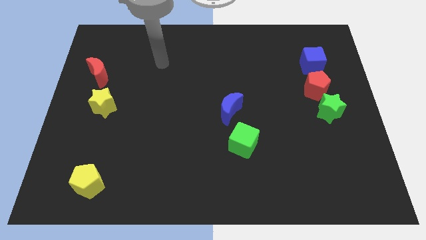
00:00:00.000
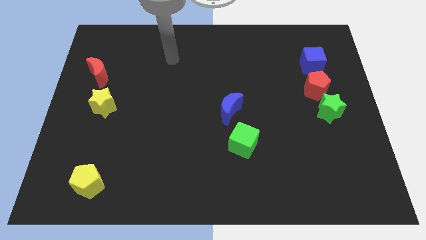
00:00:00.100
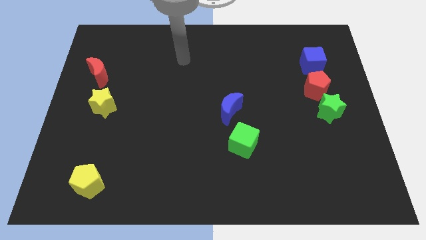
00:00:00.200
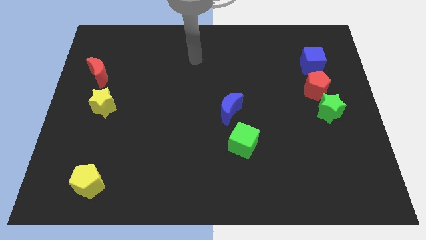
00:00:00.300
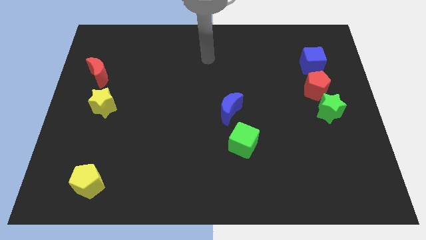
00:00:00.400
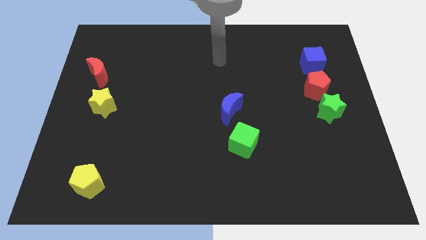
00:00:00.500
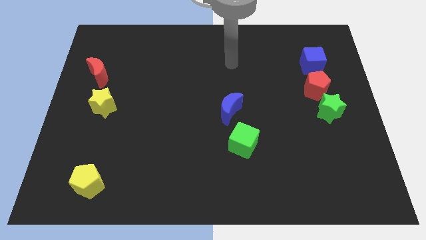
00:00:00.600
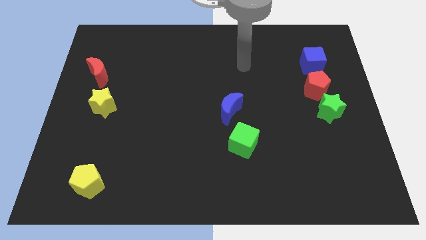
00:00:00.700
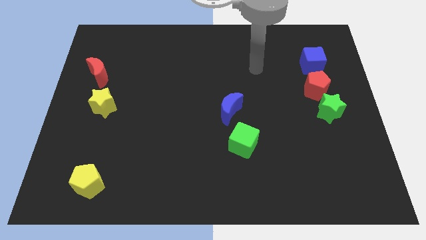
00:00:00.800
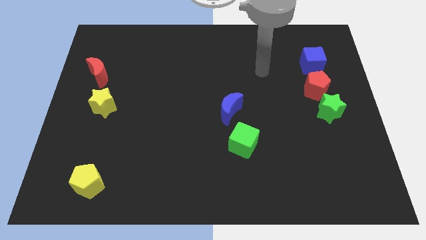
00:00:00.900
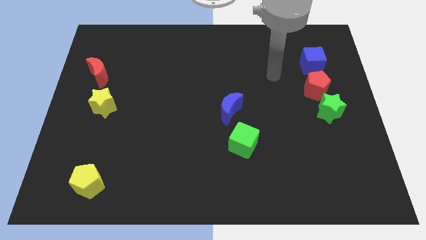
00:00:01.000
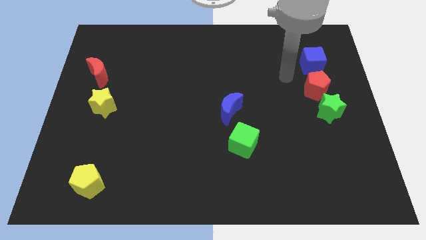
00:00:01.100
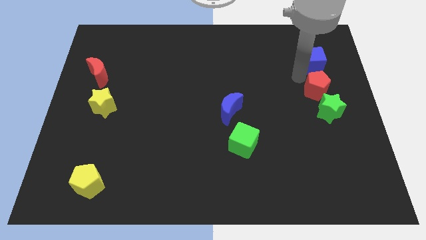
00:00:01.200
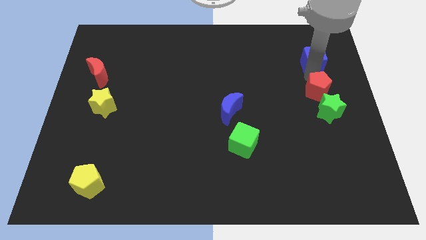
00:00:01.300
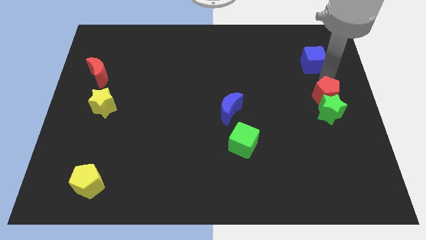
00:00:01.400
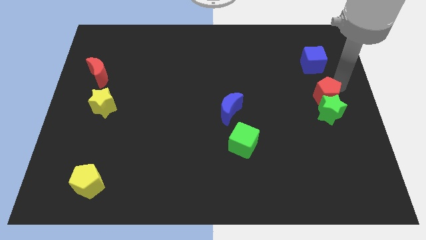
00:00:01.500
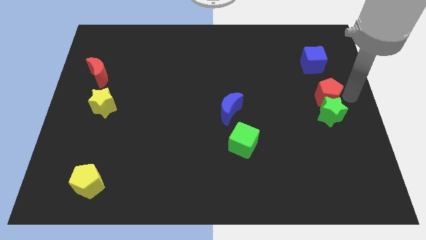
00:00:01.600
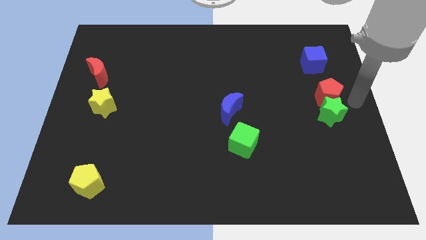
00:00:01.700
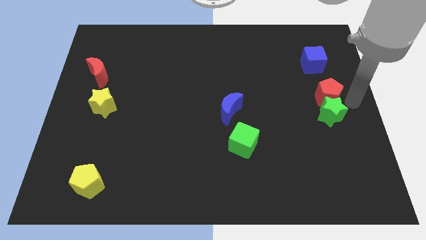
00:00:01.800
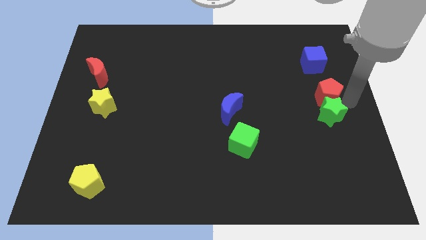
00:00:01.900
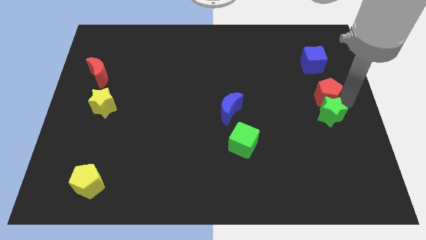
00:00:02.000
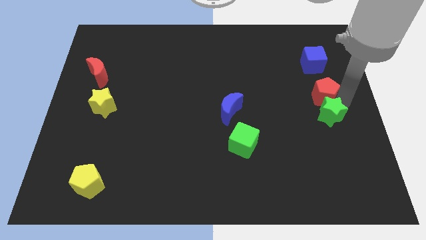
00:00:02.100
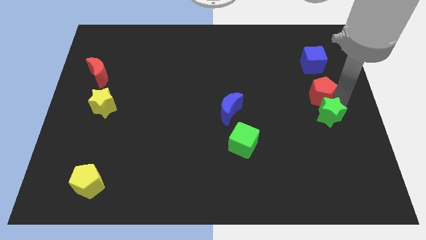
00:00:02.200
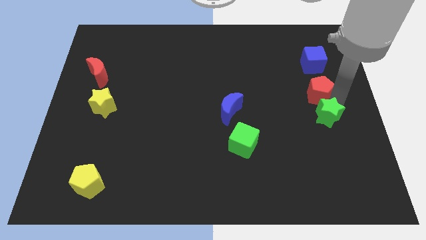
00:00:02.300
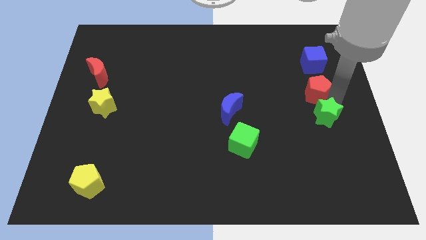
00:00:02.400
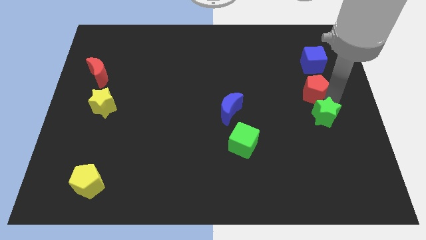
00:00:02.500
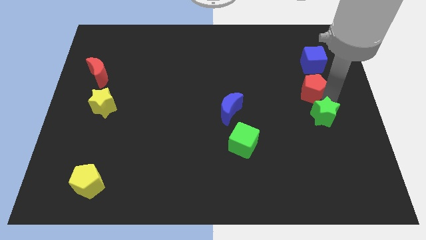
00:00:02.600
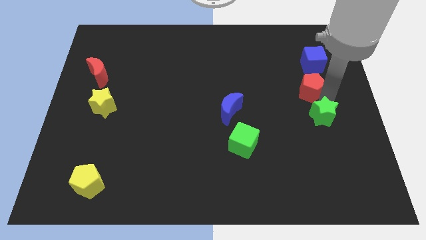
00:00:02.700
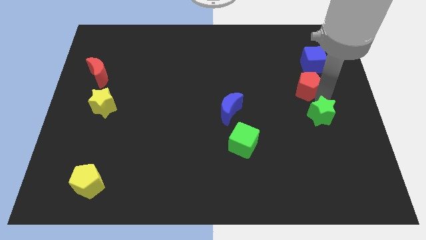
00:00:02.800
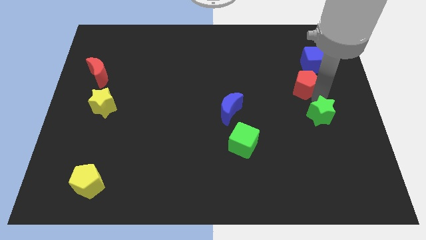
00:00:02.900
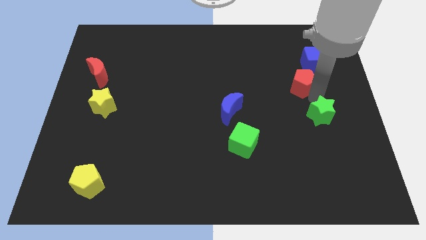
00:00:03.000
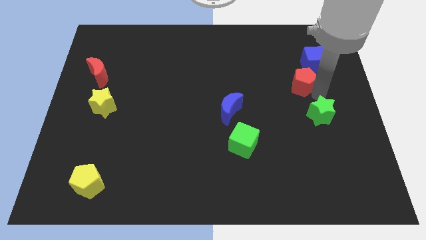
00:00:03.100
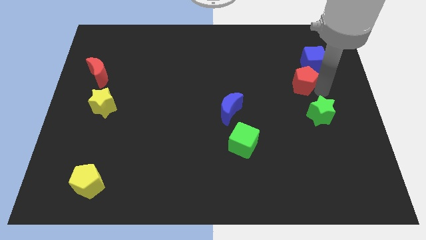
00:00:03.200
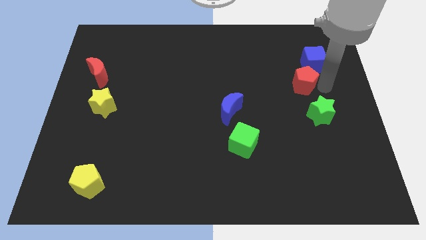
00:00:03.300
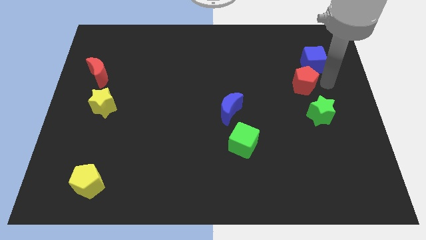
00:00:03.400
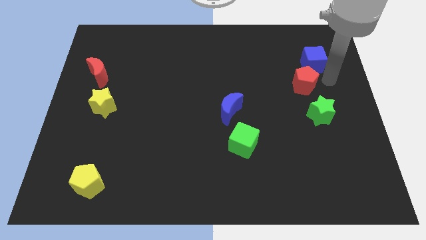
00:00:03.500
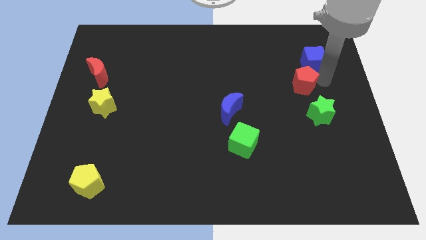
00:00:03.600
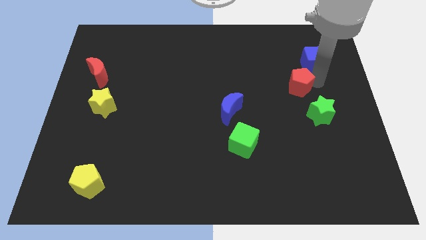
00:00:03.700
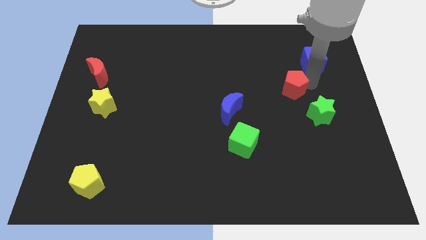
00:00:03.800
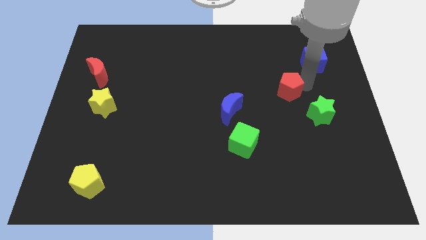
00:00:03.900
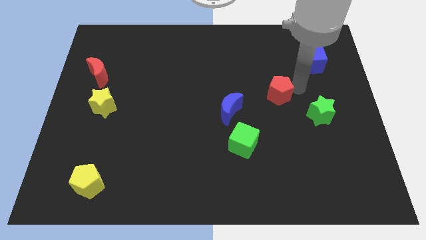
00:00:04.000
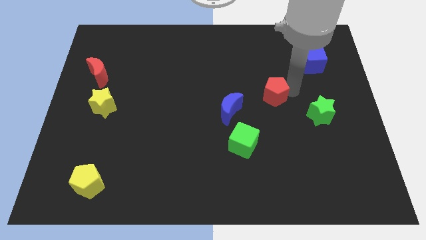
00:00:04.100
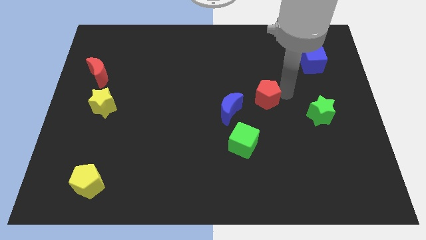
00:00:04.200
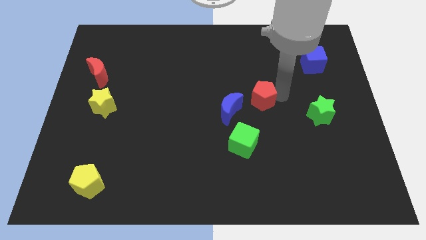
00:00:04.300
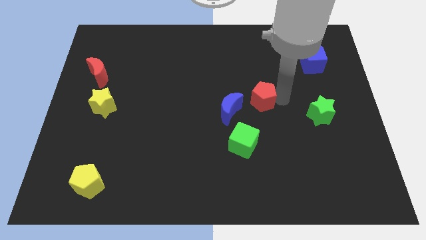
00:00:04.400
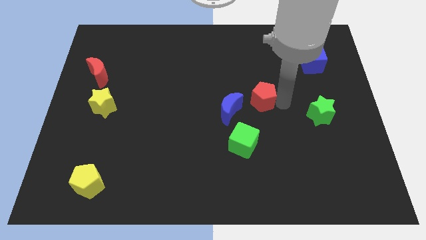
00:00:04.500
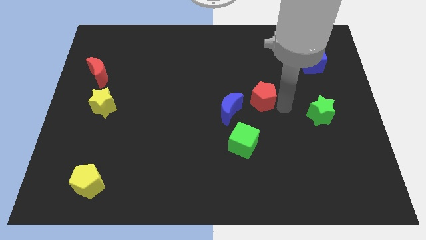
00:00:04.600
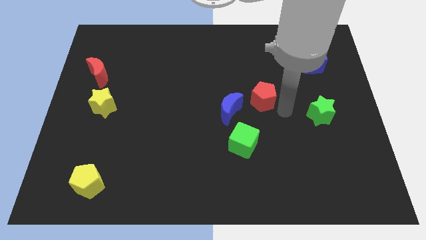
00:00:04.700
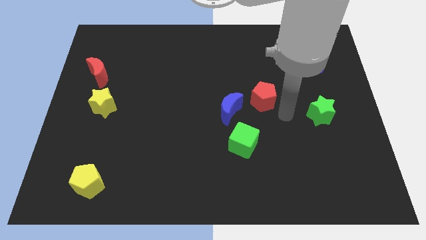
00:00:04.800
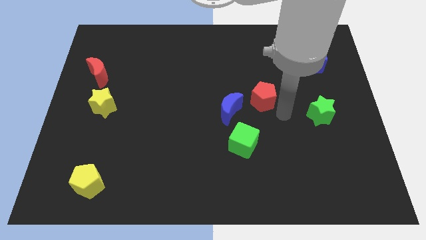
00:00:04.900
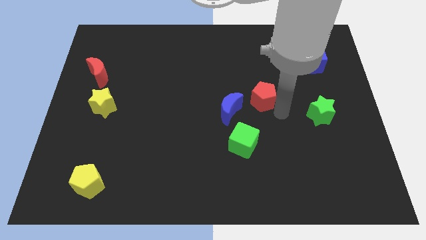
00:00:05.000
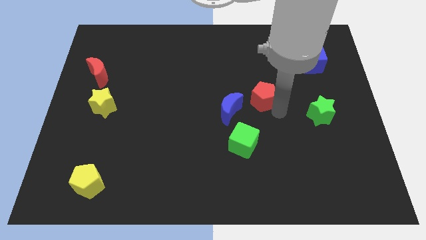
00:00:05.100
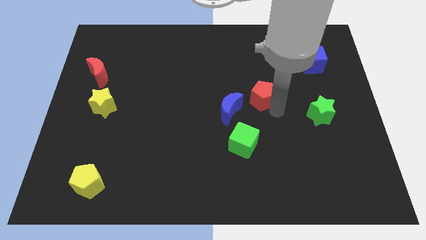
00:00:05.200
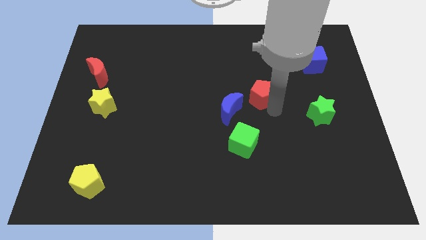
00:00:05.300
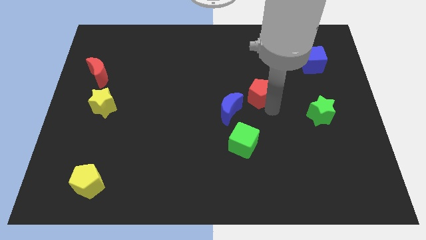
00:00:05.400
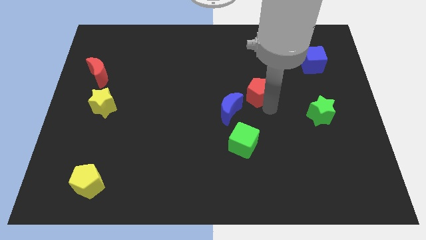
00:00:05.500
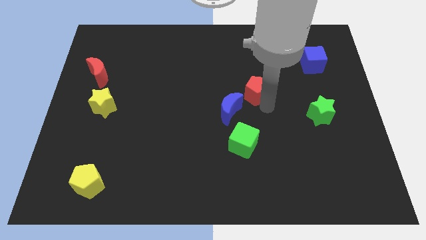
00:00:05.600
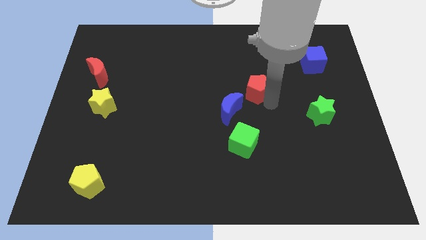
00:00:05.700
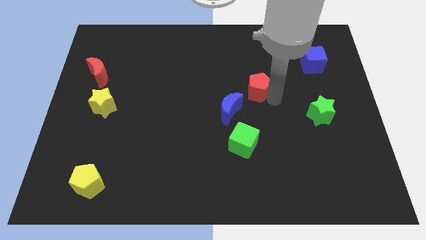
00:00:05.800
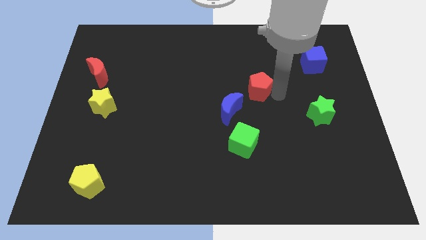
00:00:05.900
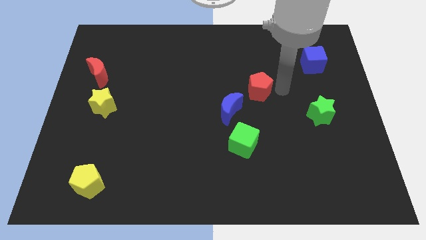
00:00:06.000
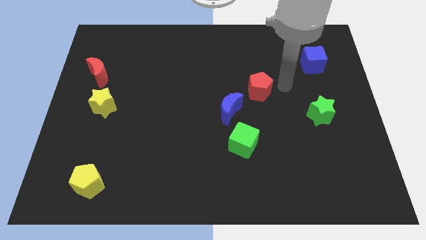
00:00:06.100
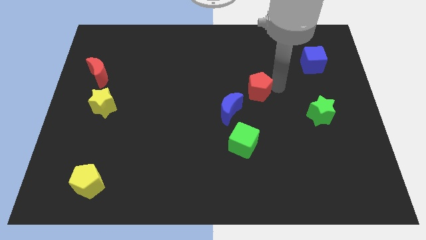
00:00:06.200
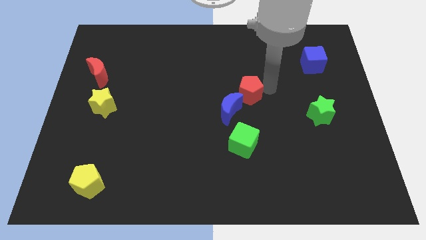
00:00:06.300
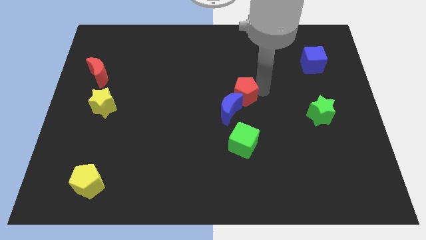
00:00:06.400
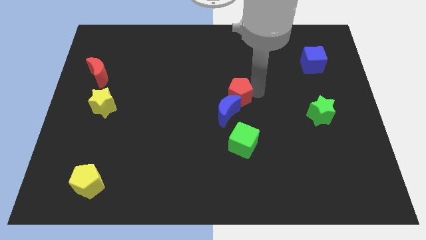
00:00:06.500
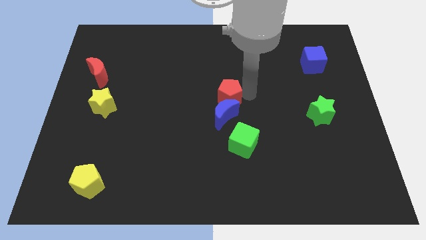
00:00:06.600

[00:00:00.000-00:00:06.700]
slide the red pentagon to the left

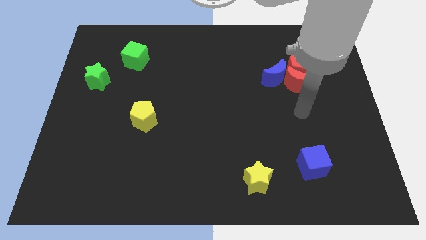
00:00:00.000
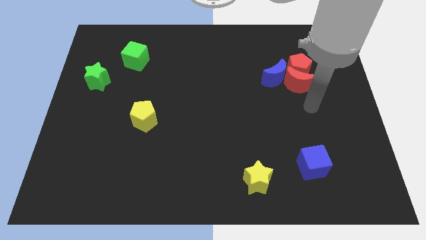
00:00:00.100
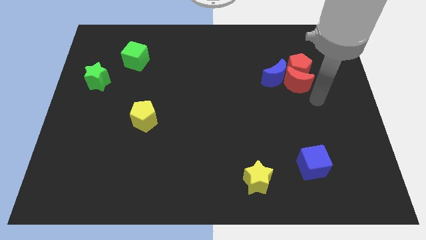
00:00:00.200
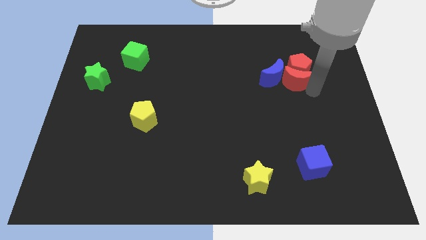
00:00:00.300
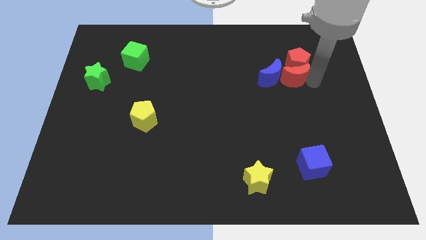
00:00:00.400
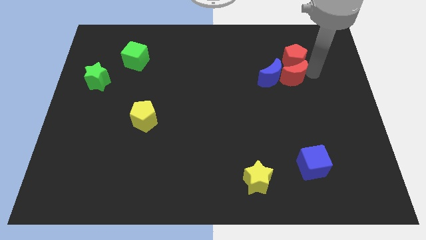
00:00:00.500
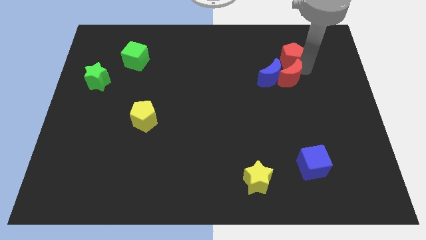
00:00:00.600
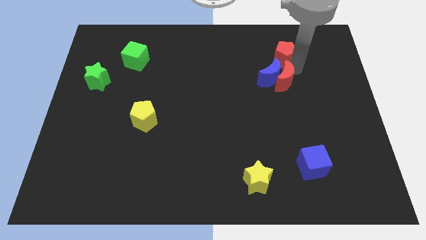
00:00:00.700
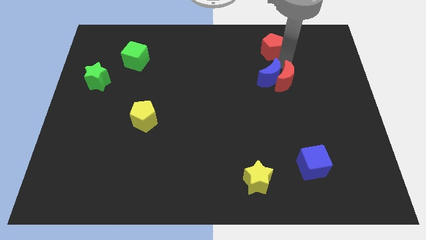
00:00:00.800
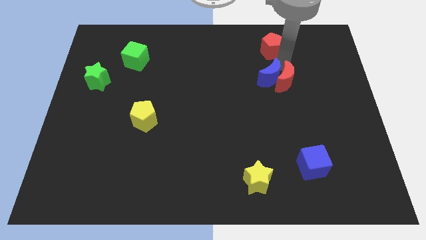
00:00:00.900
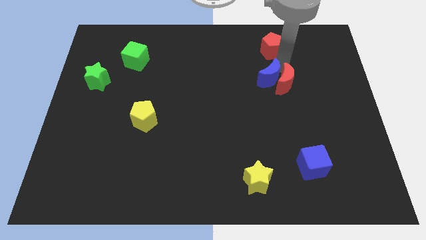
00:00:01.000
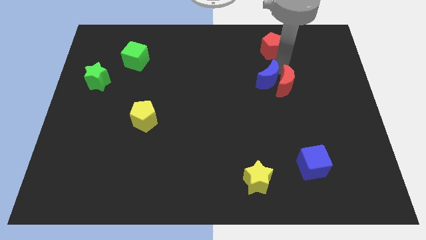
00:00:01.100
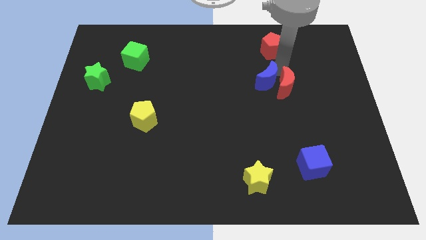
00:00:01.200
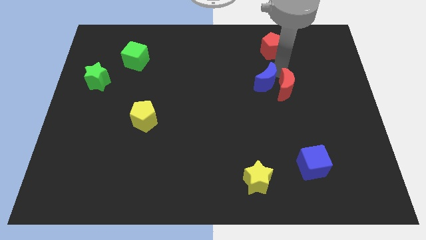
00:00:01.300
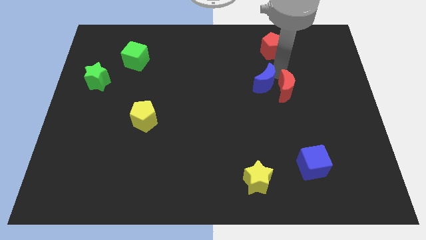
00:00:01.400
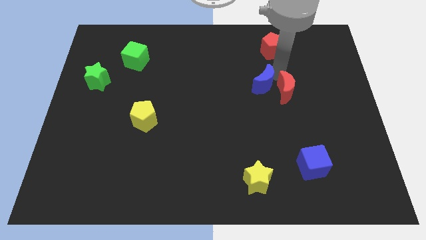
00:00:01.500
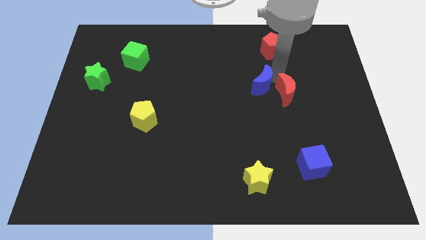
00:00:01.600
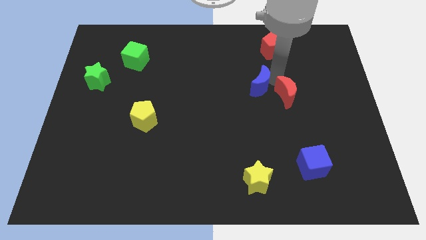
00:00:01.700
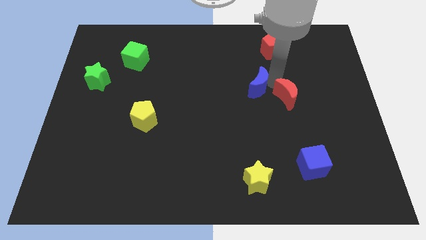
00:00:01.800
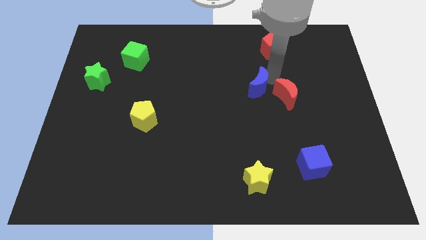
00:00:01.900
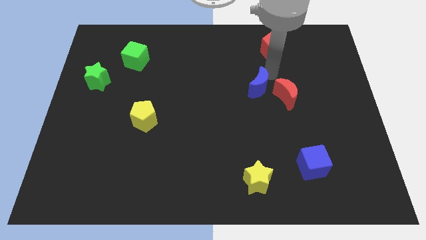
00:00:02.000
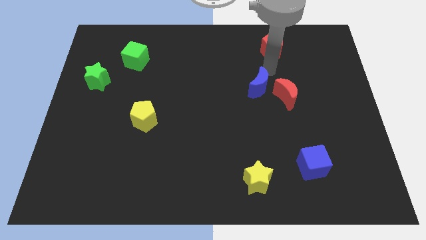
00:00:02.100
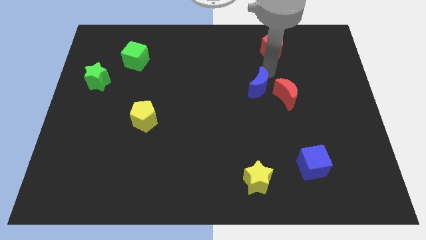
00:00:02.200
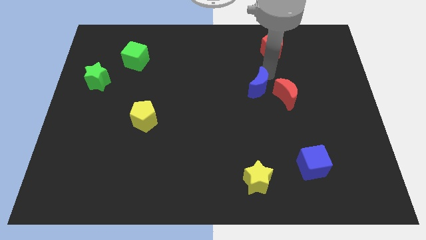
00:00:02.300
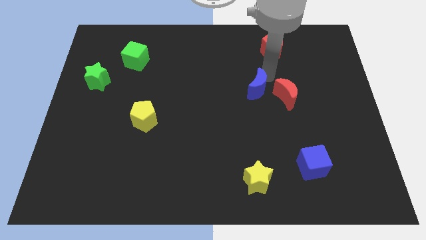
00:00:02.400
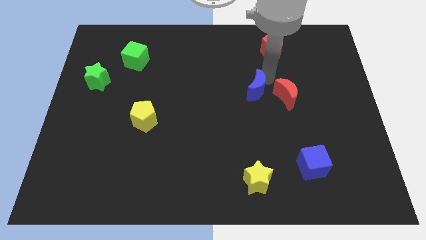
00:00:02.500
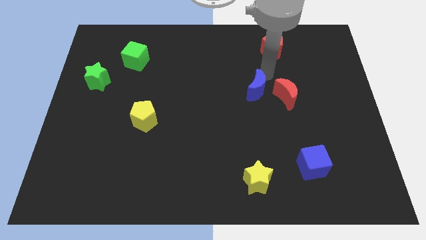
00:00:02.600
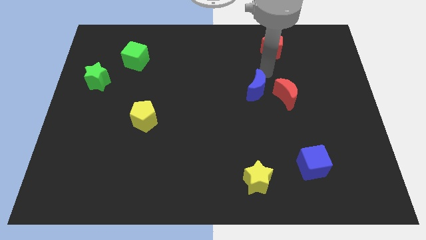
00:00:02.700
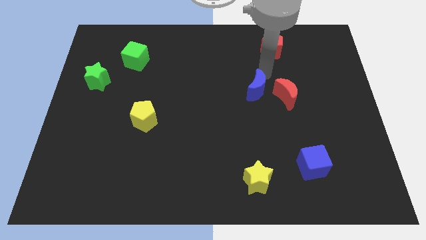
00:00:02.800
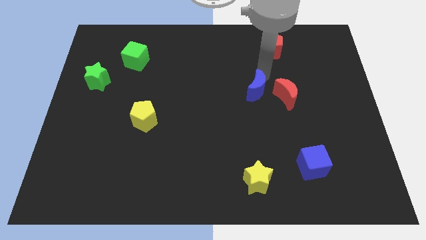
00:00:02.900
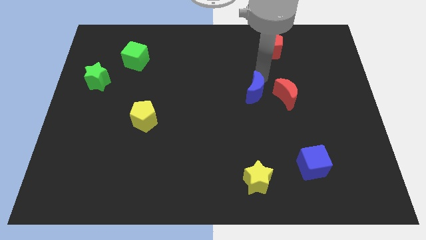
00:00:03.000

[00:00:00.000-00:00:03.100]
move the blue moon somewhat down and to the left diagonally
